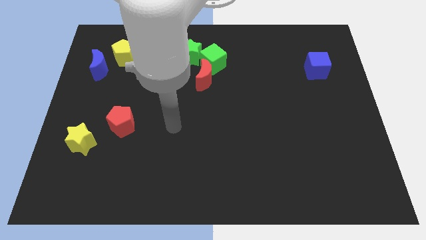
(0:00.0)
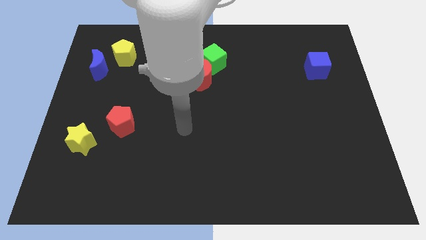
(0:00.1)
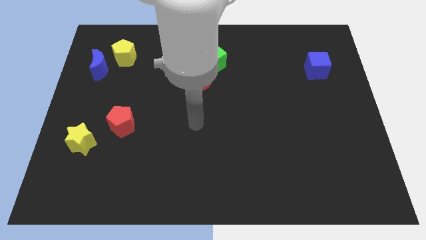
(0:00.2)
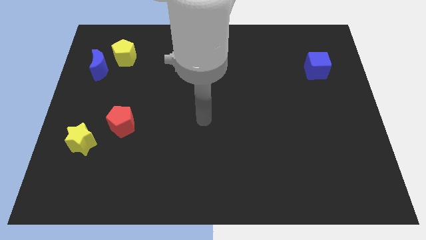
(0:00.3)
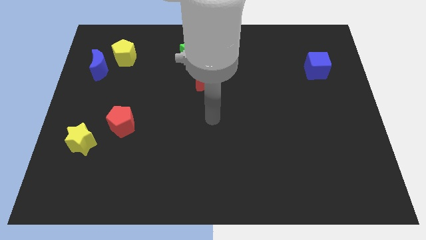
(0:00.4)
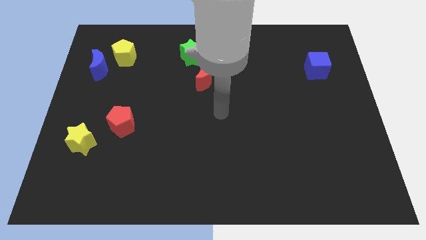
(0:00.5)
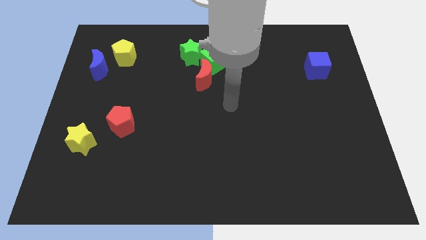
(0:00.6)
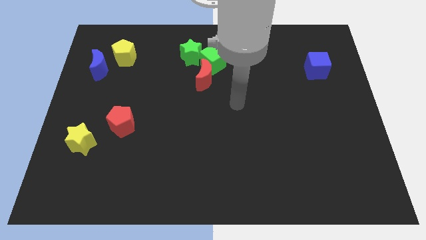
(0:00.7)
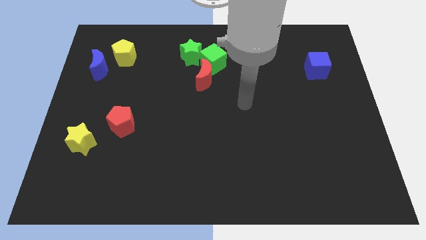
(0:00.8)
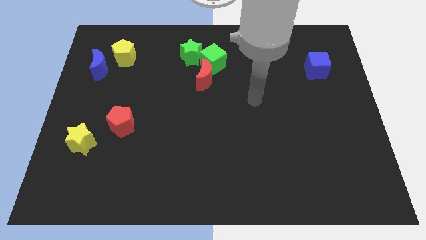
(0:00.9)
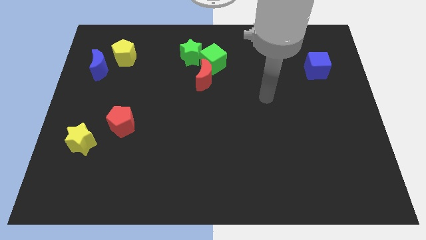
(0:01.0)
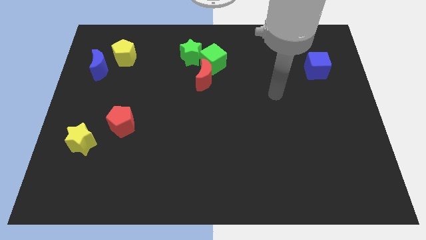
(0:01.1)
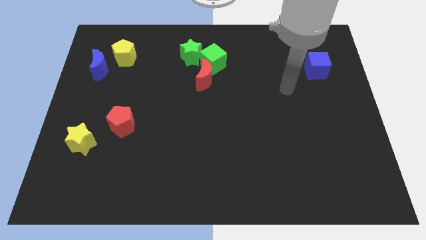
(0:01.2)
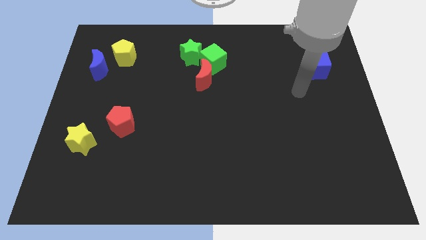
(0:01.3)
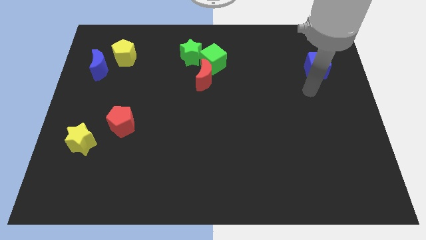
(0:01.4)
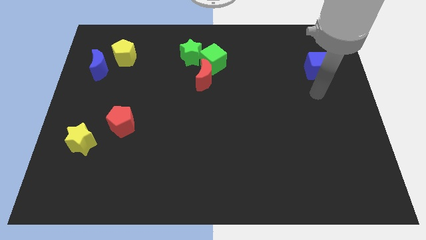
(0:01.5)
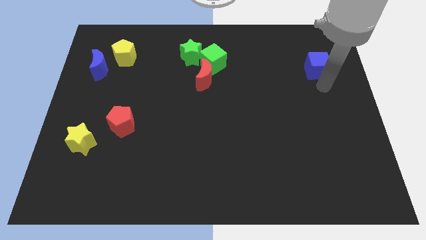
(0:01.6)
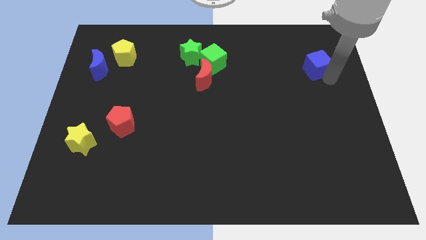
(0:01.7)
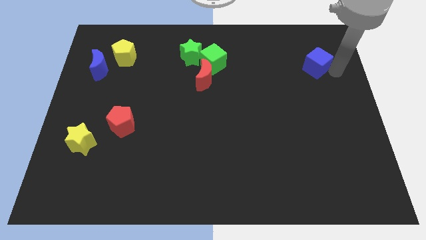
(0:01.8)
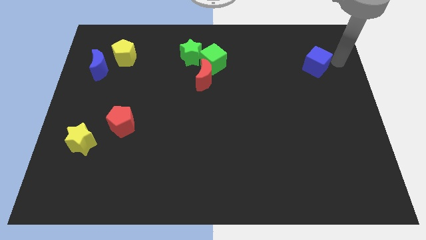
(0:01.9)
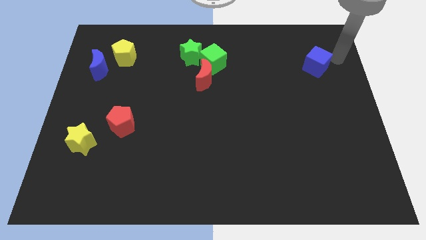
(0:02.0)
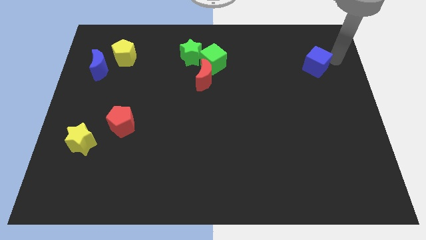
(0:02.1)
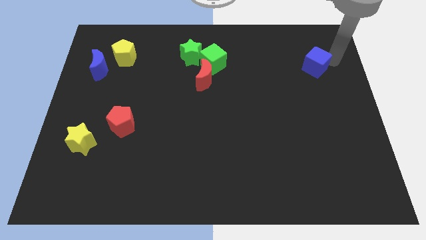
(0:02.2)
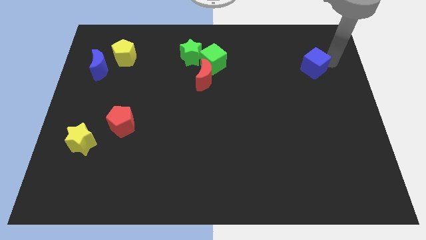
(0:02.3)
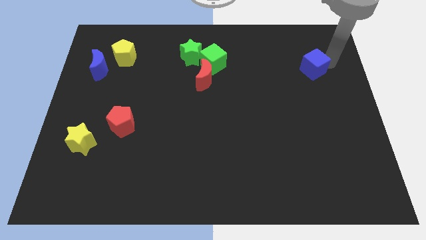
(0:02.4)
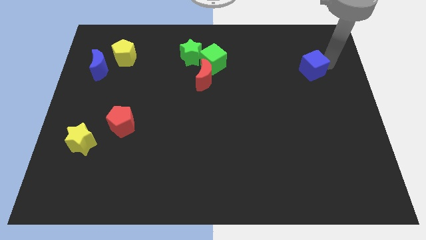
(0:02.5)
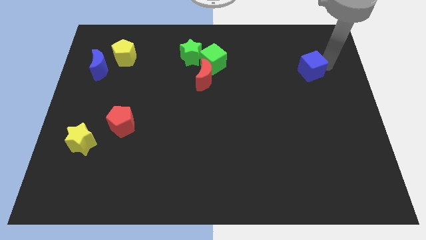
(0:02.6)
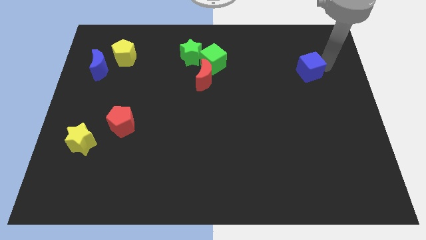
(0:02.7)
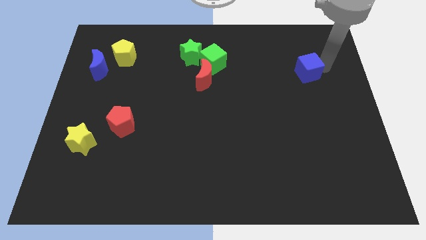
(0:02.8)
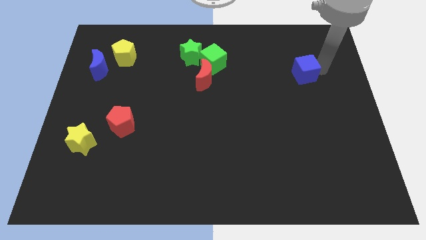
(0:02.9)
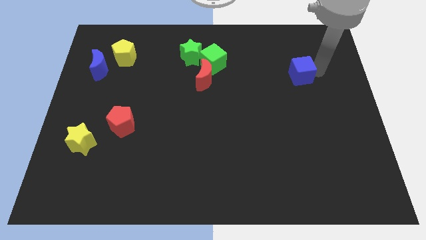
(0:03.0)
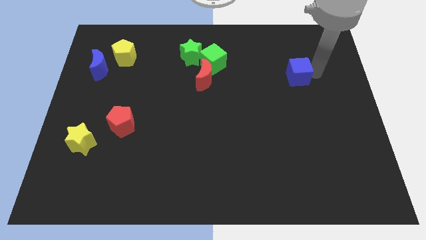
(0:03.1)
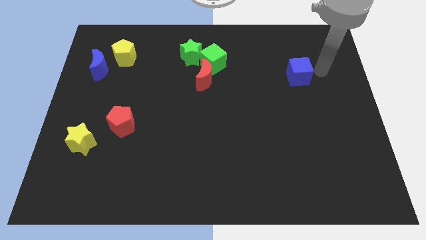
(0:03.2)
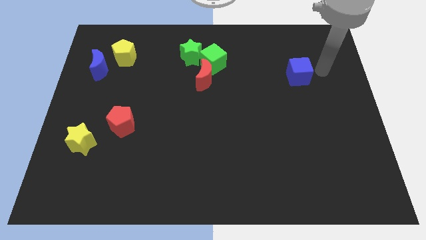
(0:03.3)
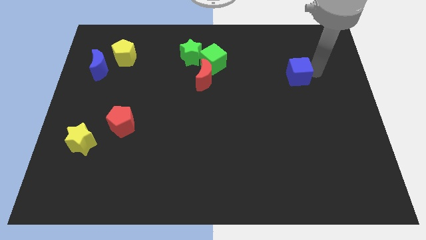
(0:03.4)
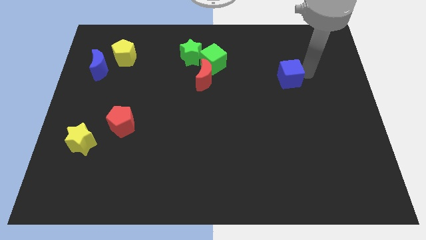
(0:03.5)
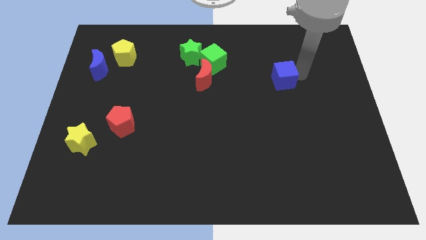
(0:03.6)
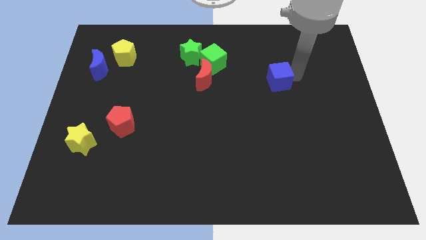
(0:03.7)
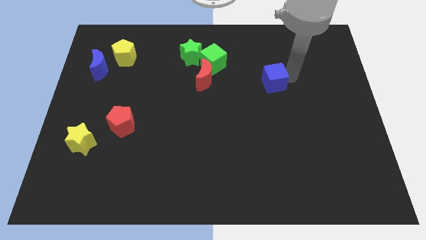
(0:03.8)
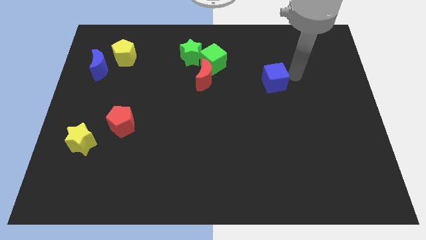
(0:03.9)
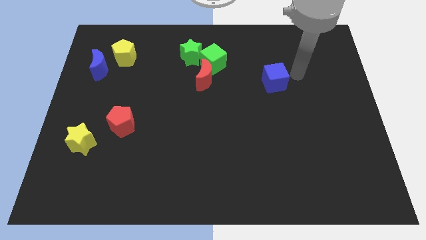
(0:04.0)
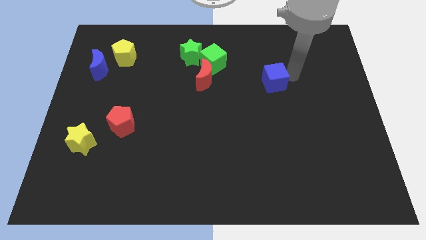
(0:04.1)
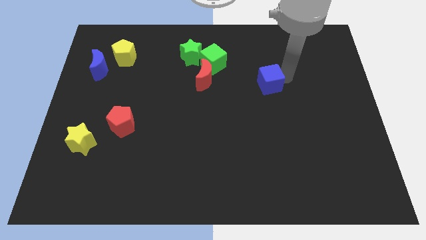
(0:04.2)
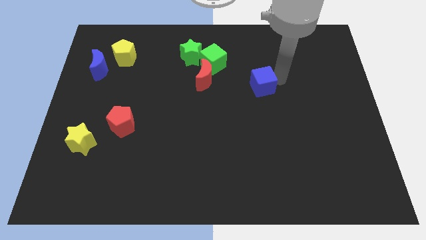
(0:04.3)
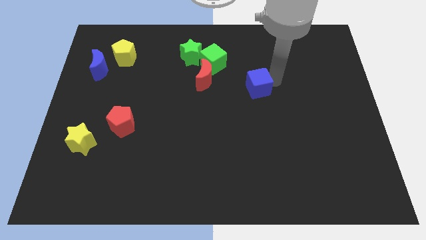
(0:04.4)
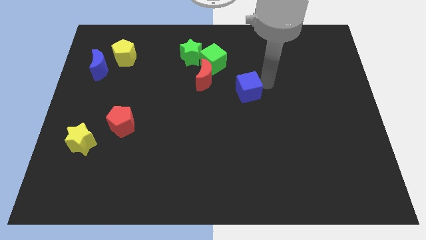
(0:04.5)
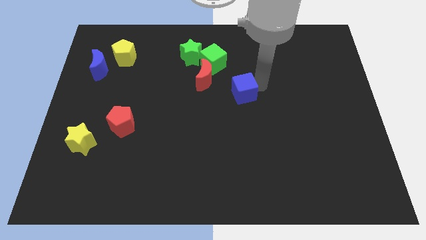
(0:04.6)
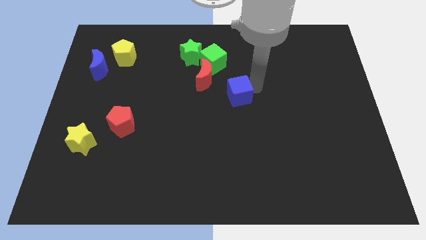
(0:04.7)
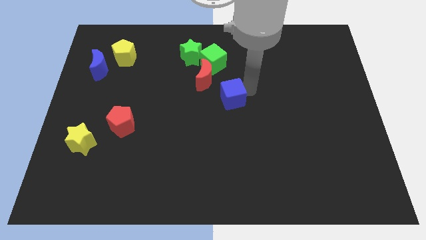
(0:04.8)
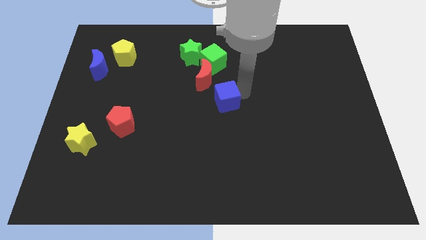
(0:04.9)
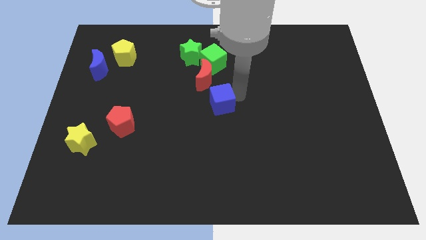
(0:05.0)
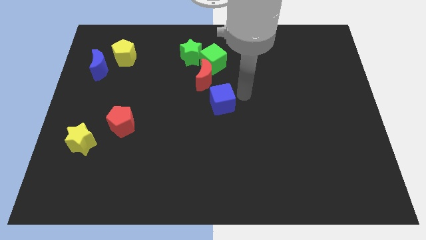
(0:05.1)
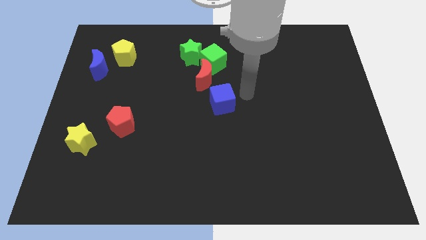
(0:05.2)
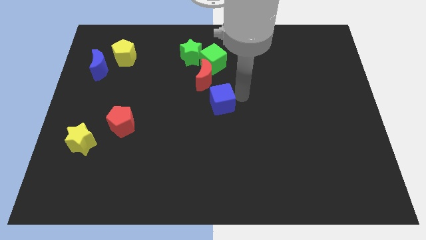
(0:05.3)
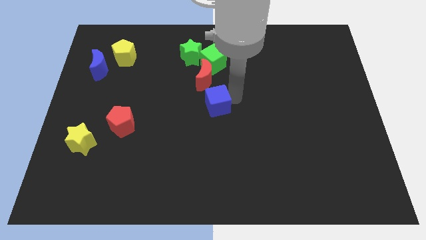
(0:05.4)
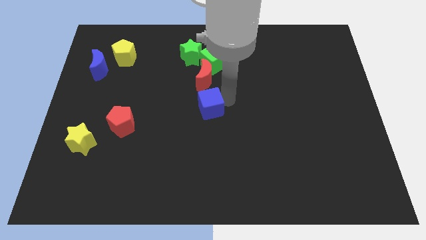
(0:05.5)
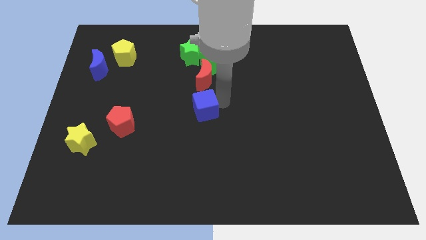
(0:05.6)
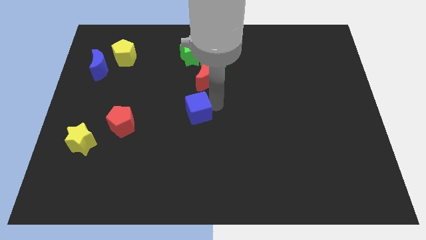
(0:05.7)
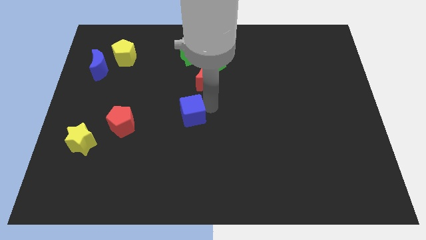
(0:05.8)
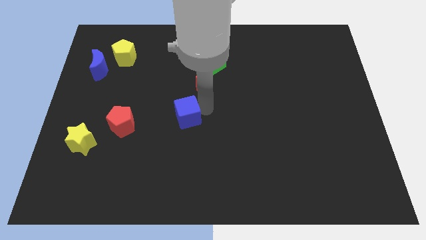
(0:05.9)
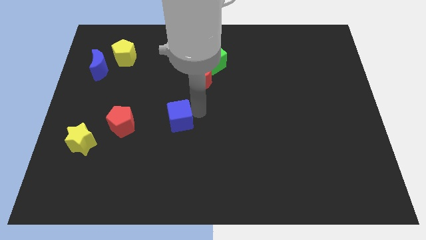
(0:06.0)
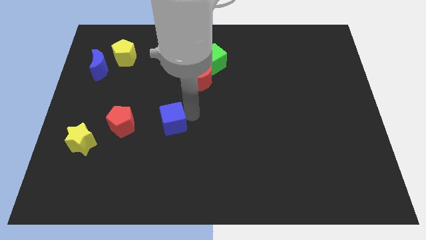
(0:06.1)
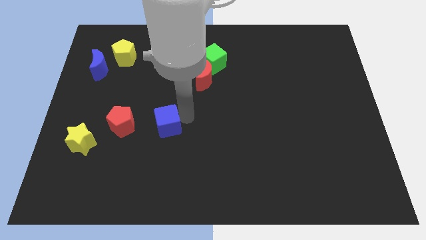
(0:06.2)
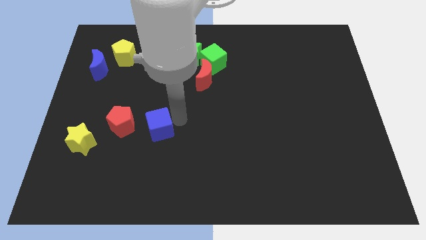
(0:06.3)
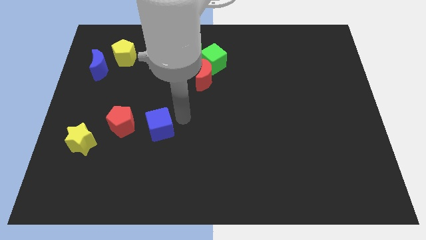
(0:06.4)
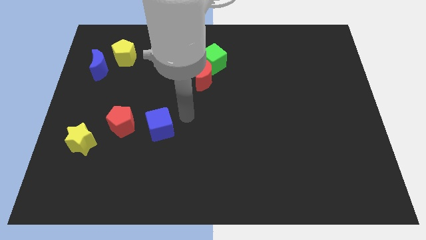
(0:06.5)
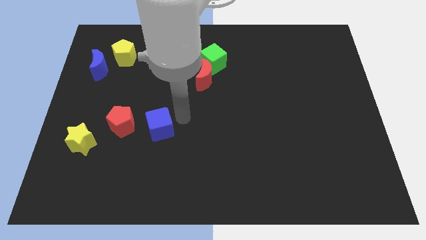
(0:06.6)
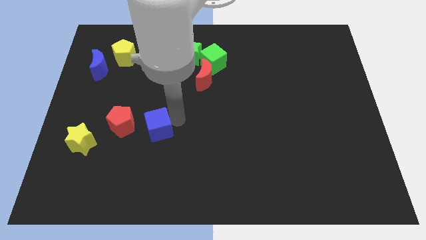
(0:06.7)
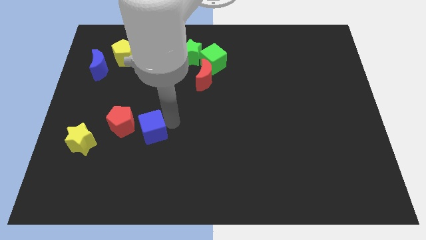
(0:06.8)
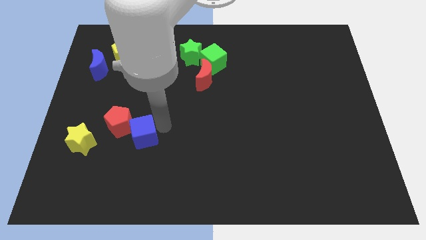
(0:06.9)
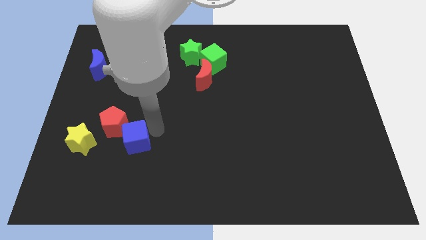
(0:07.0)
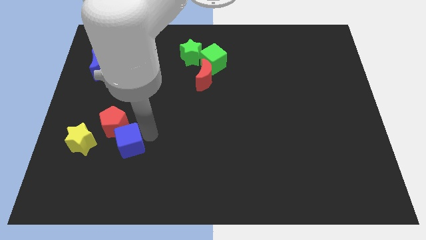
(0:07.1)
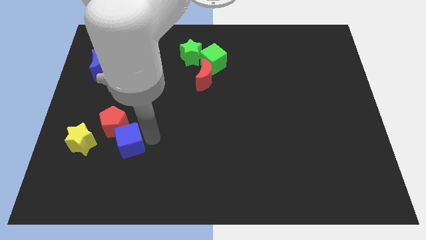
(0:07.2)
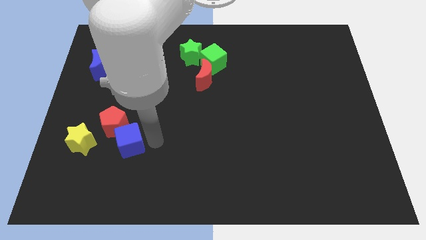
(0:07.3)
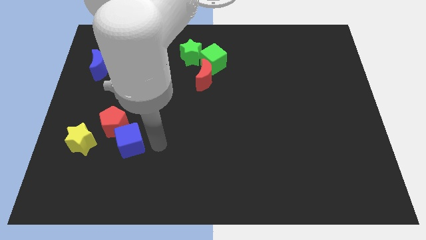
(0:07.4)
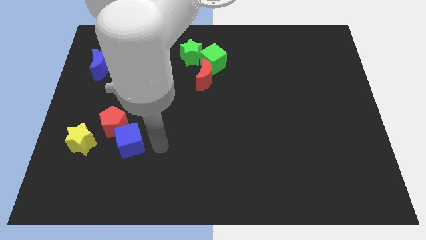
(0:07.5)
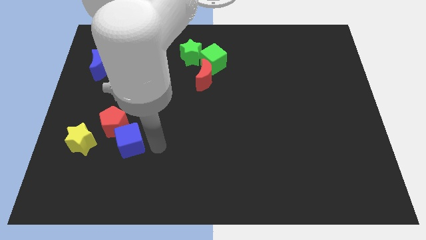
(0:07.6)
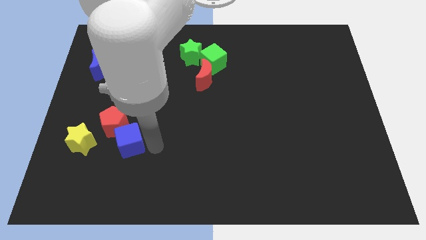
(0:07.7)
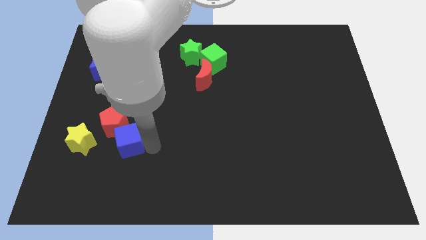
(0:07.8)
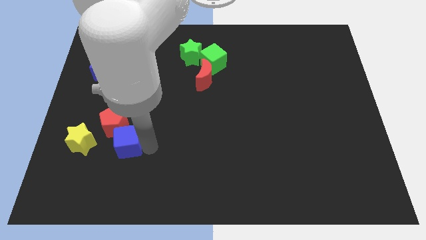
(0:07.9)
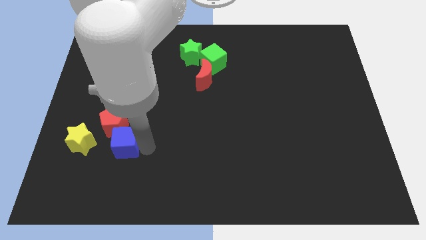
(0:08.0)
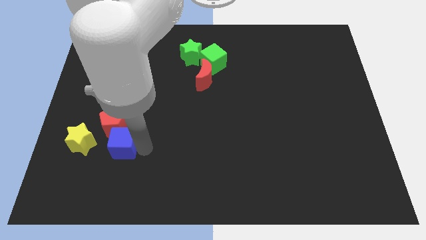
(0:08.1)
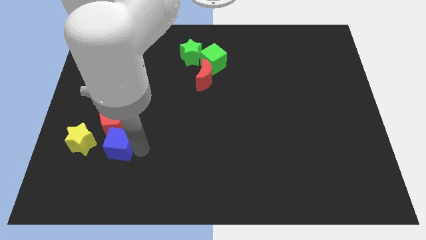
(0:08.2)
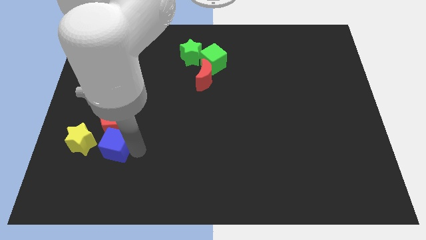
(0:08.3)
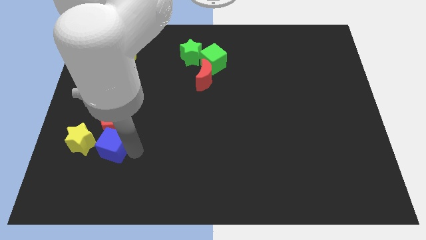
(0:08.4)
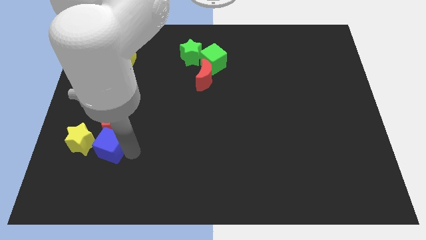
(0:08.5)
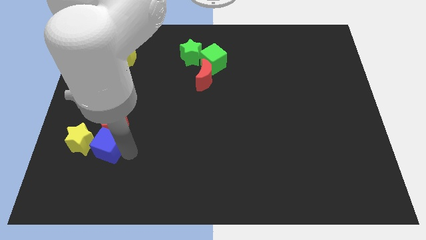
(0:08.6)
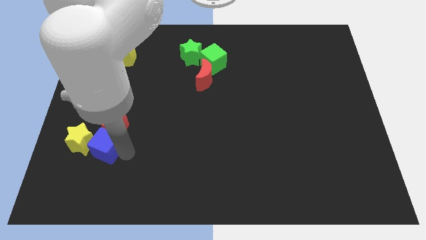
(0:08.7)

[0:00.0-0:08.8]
slide the blue cube towards the yellow star
